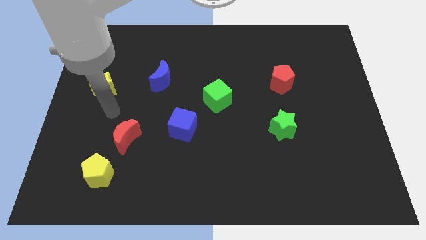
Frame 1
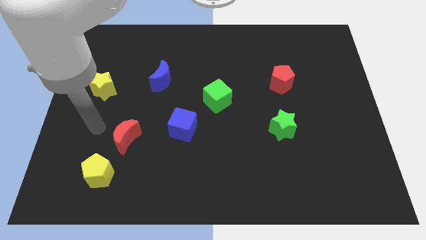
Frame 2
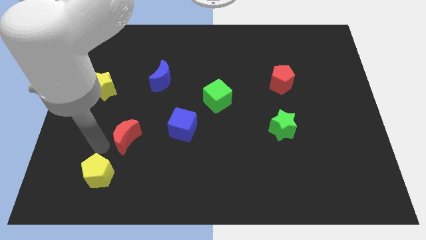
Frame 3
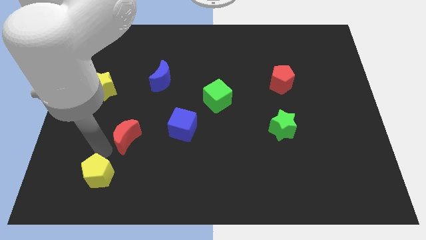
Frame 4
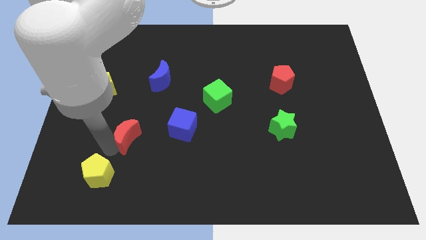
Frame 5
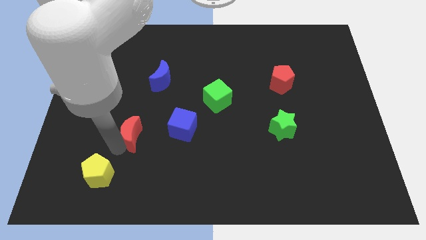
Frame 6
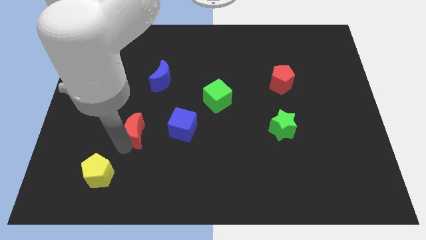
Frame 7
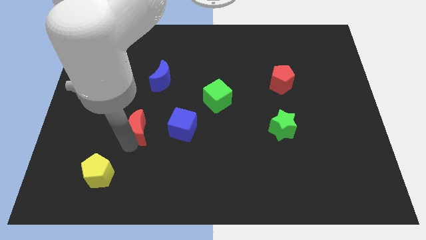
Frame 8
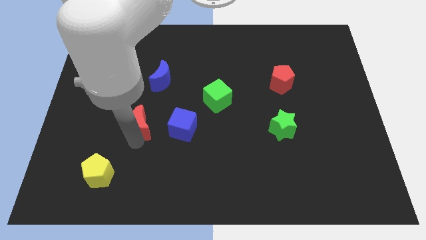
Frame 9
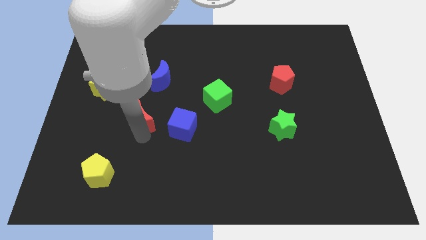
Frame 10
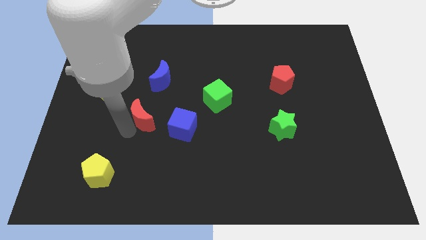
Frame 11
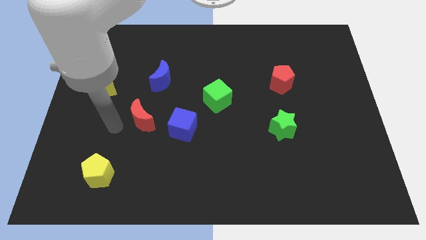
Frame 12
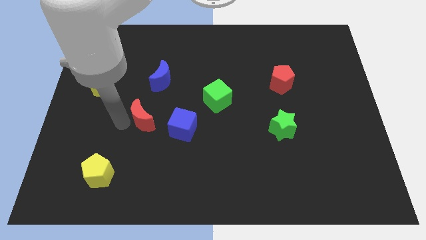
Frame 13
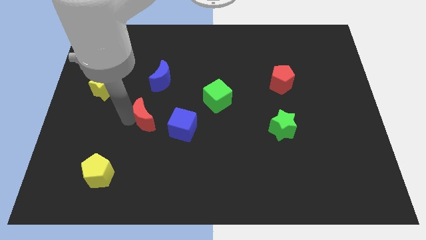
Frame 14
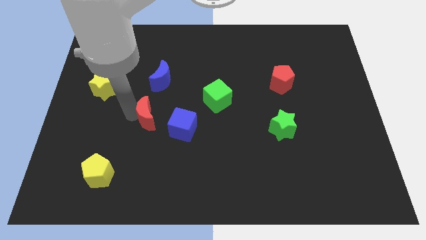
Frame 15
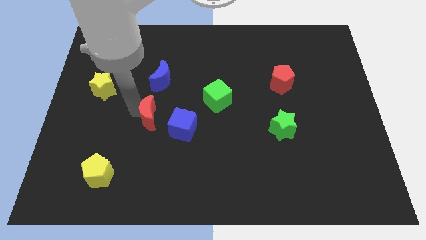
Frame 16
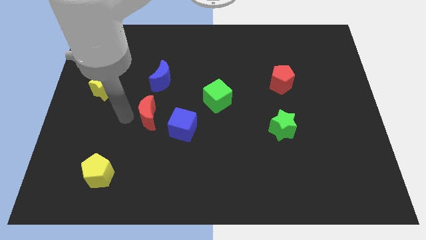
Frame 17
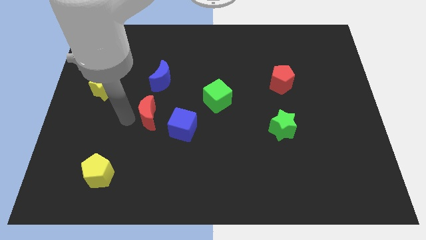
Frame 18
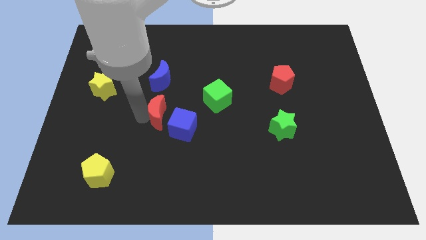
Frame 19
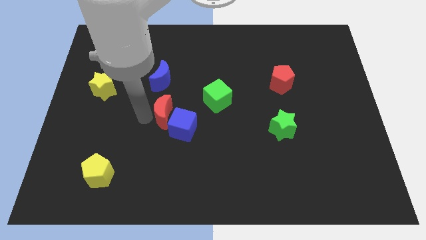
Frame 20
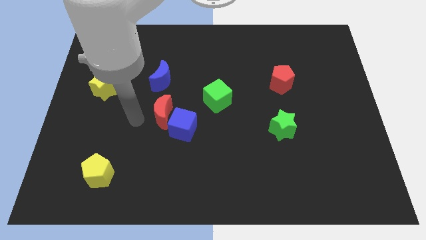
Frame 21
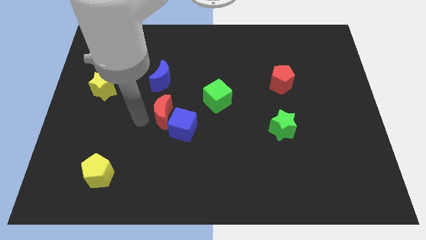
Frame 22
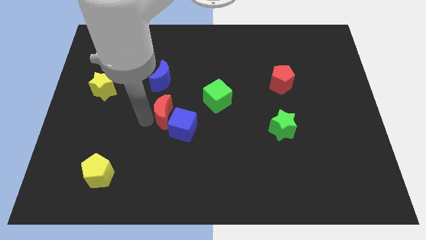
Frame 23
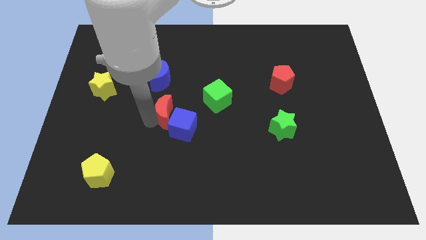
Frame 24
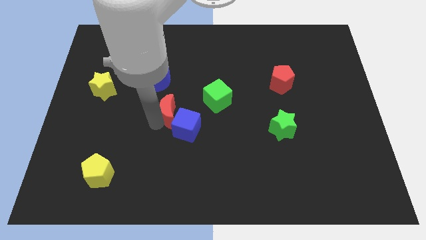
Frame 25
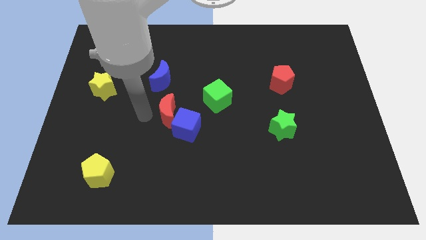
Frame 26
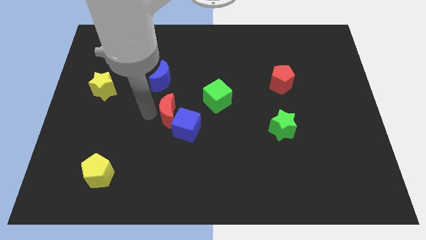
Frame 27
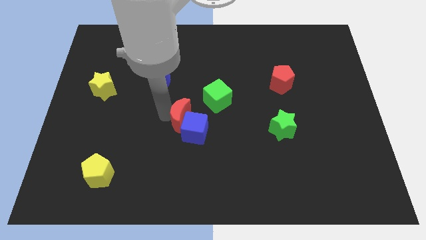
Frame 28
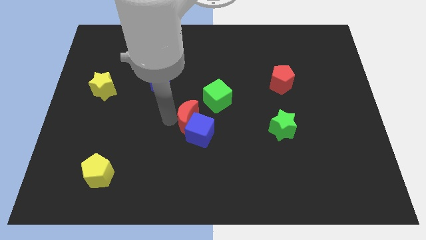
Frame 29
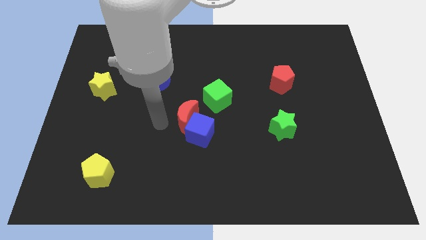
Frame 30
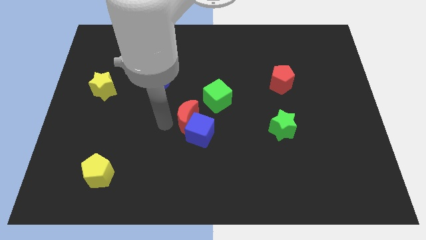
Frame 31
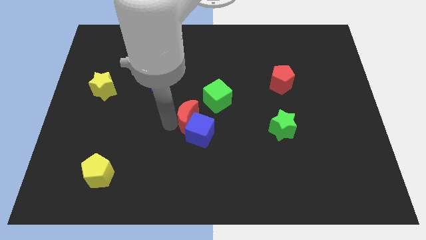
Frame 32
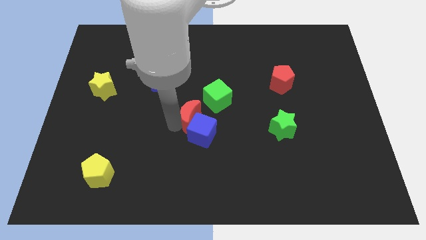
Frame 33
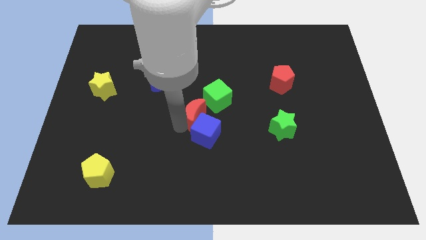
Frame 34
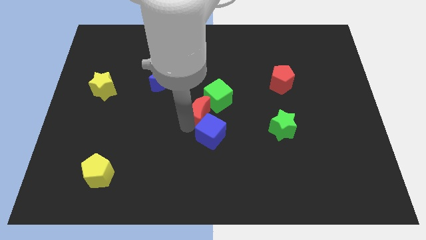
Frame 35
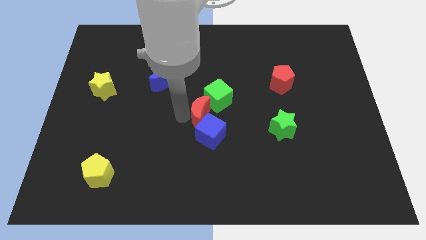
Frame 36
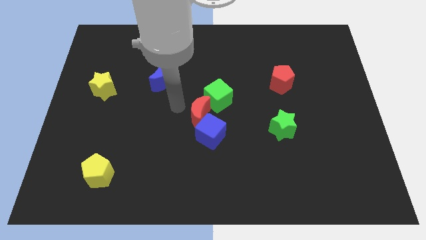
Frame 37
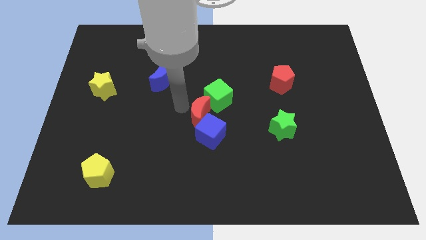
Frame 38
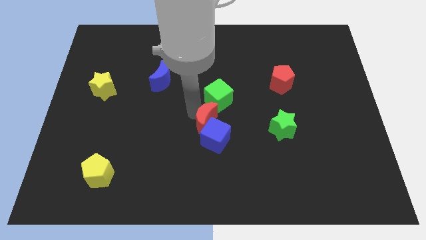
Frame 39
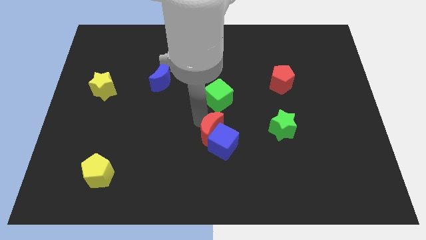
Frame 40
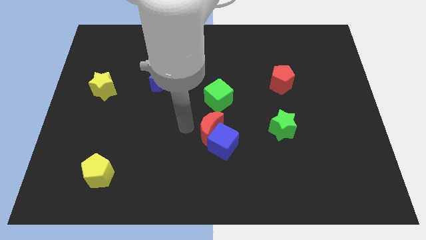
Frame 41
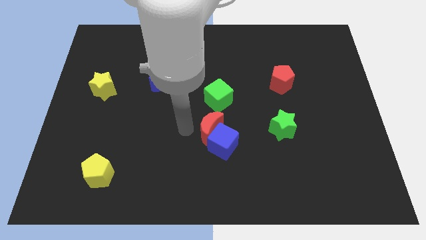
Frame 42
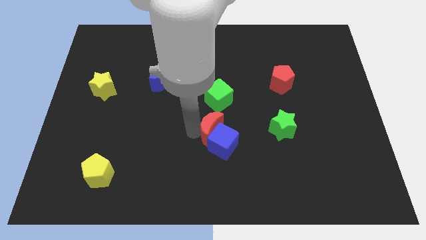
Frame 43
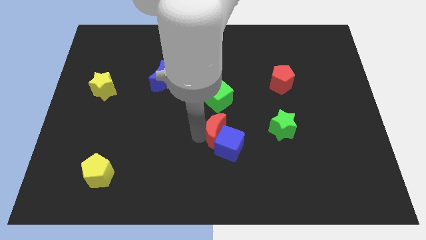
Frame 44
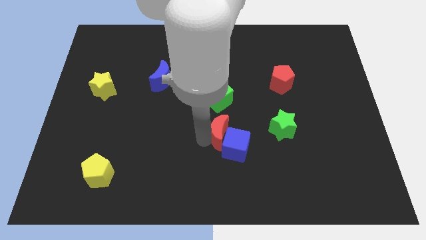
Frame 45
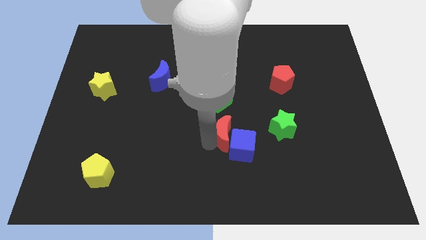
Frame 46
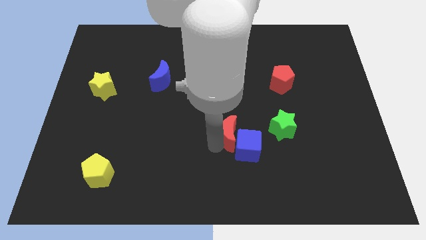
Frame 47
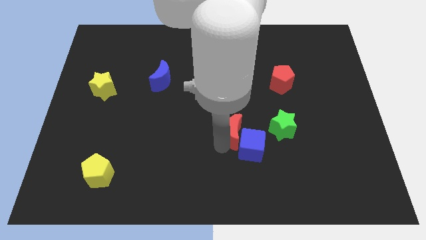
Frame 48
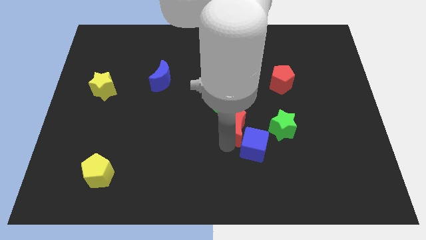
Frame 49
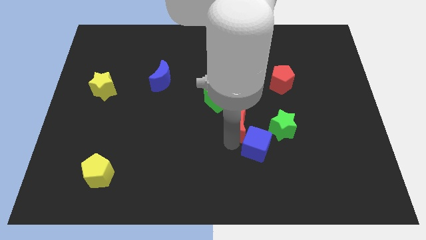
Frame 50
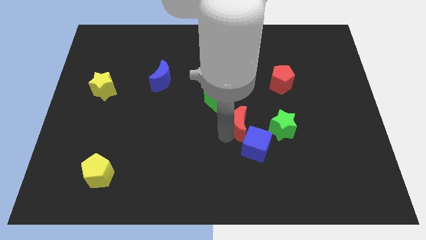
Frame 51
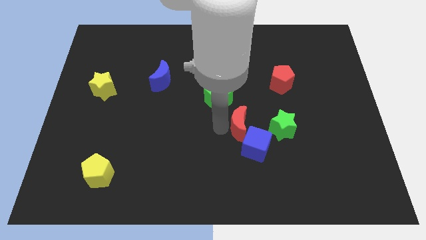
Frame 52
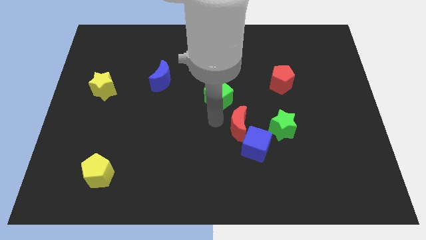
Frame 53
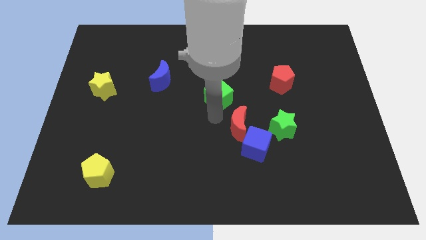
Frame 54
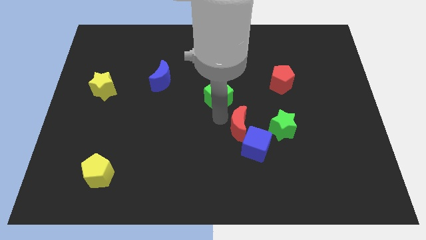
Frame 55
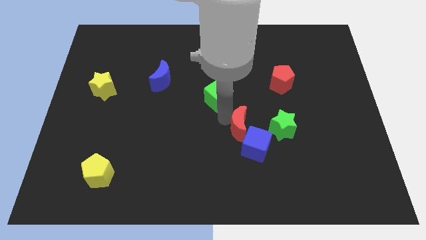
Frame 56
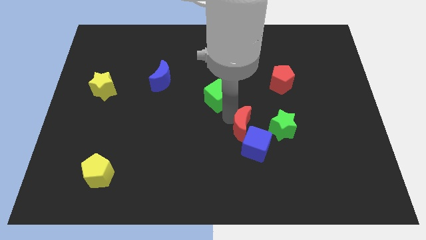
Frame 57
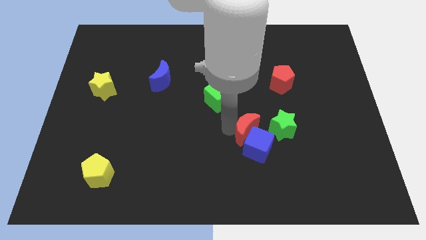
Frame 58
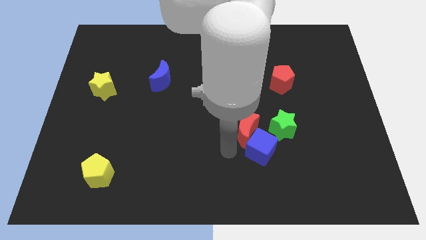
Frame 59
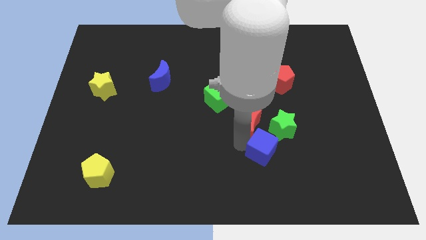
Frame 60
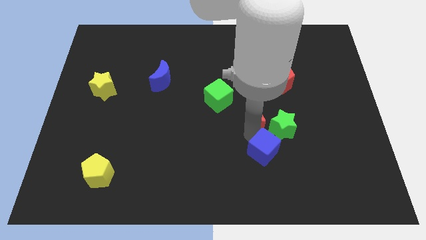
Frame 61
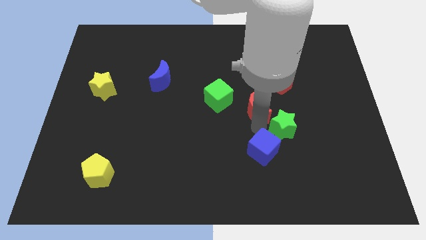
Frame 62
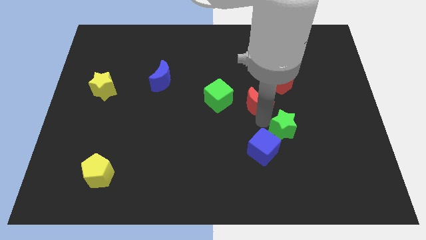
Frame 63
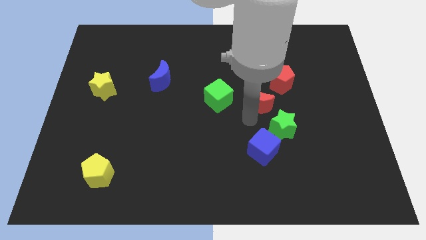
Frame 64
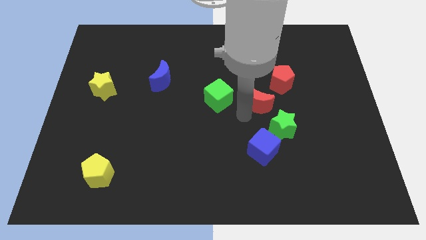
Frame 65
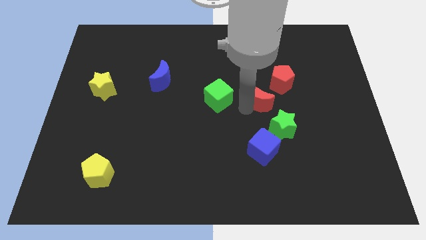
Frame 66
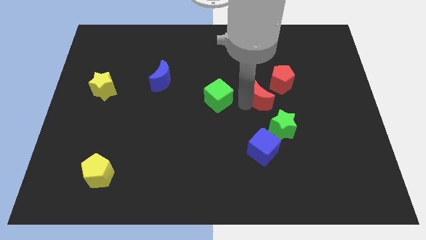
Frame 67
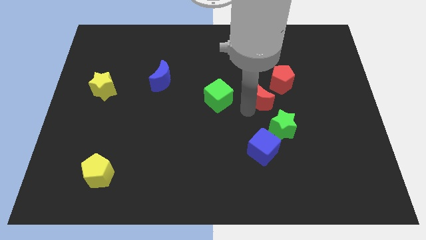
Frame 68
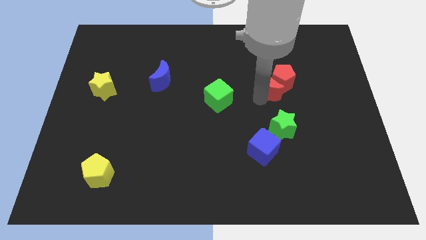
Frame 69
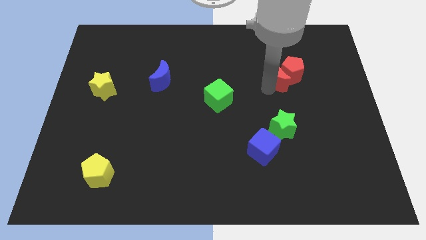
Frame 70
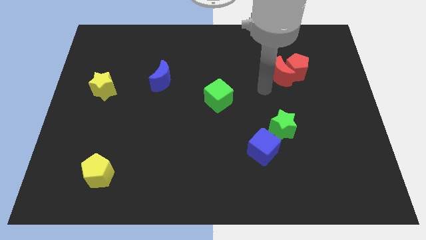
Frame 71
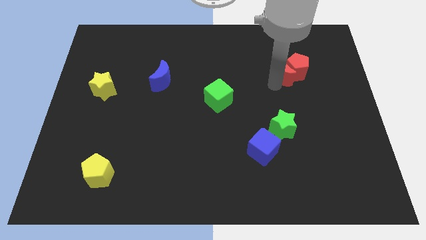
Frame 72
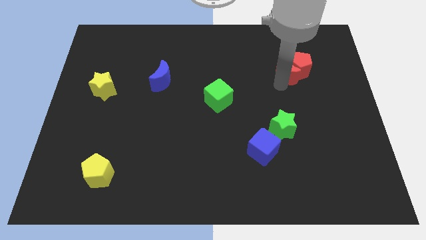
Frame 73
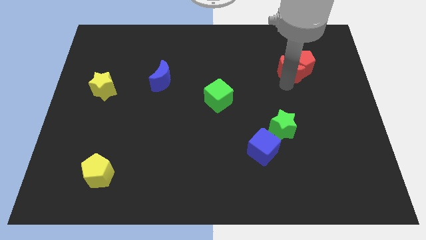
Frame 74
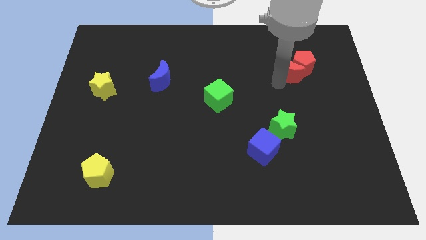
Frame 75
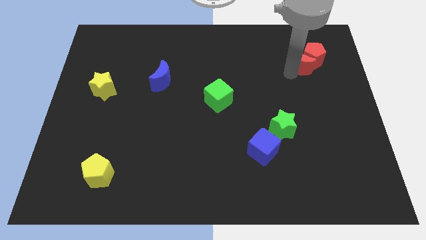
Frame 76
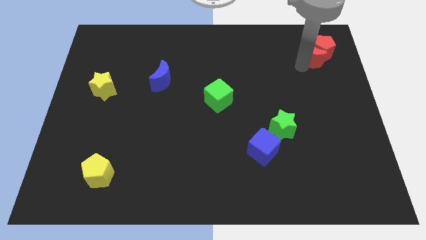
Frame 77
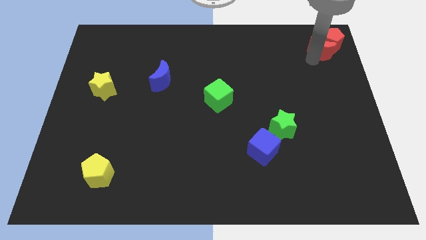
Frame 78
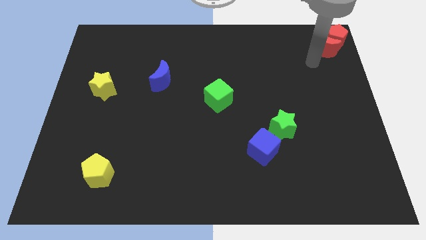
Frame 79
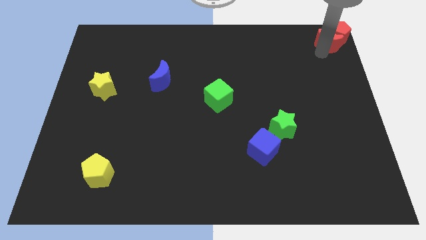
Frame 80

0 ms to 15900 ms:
push the red moon to the top right
